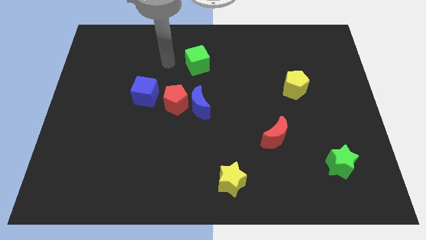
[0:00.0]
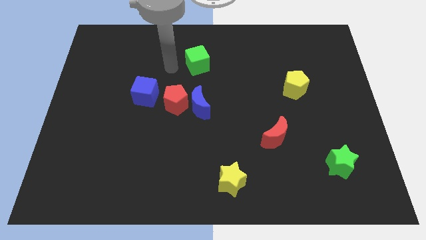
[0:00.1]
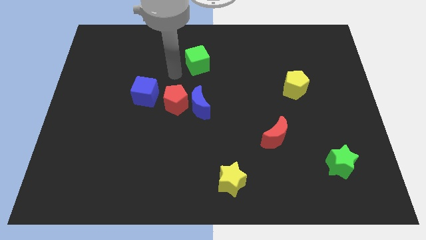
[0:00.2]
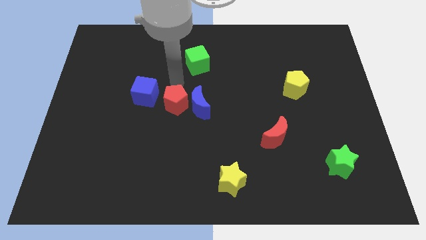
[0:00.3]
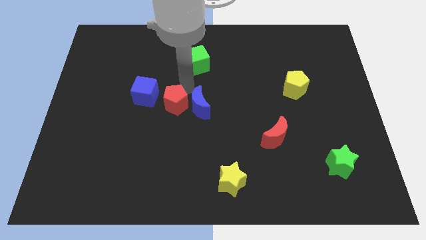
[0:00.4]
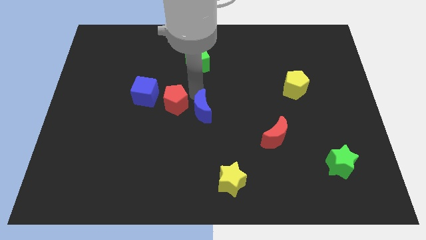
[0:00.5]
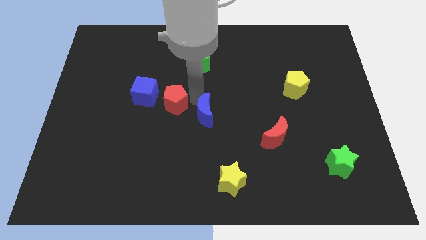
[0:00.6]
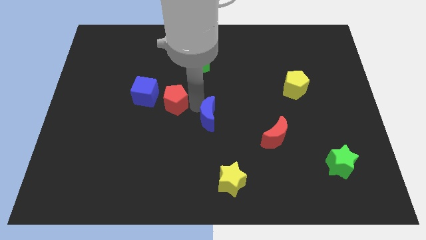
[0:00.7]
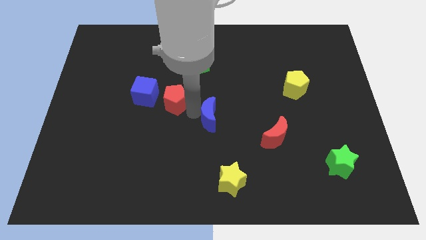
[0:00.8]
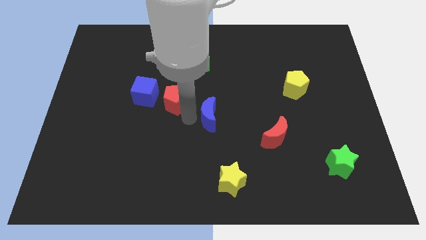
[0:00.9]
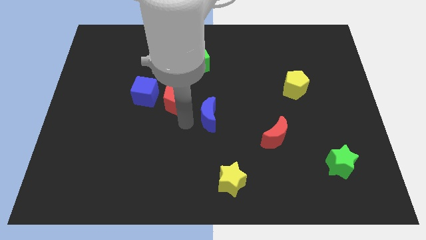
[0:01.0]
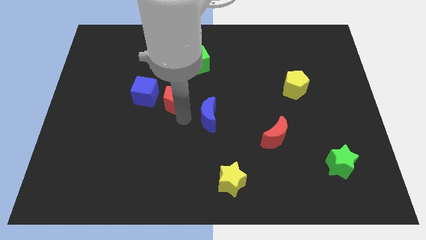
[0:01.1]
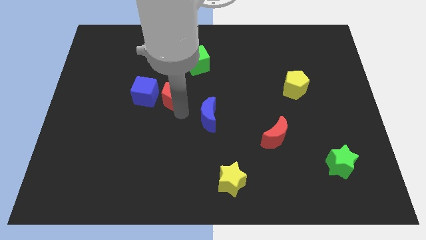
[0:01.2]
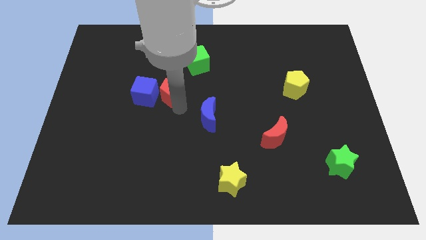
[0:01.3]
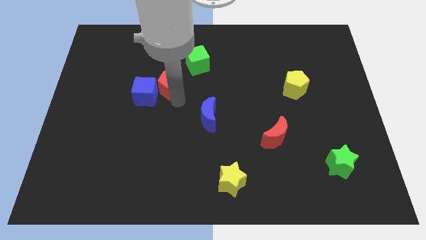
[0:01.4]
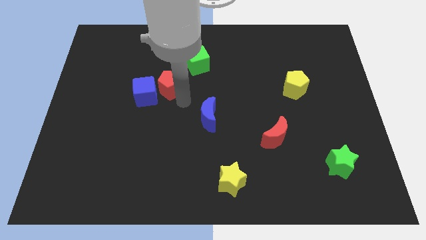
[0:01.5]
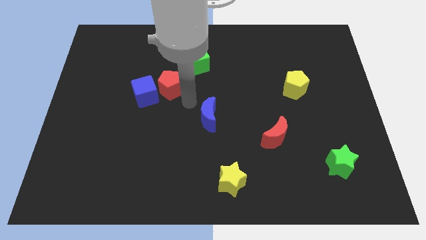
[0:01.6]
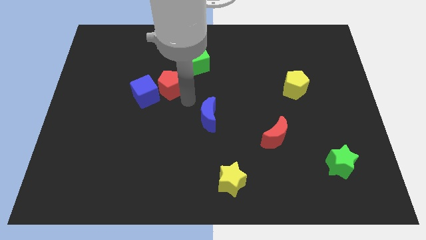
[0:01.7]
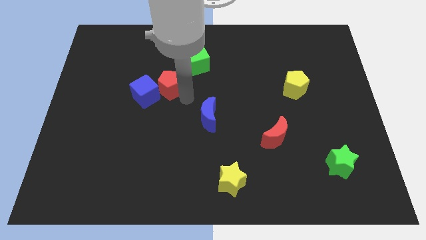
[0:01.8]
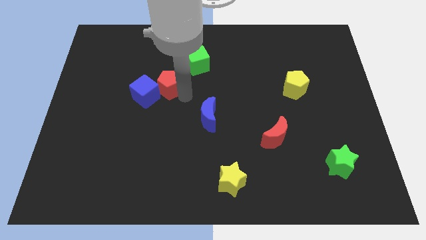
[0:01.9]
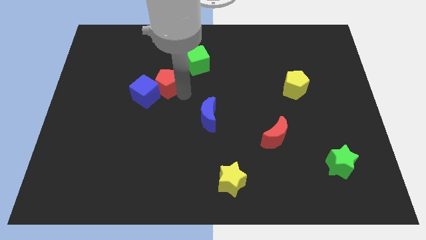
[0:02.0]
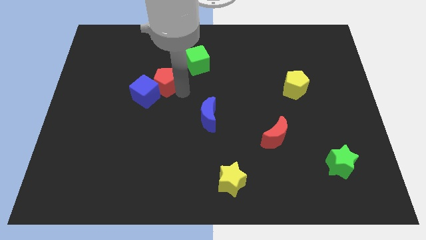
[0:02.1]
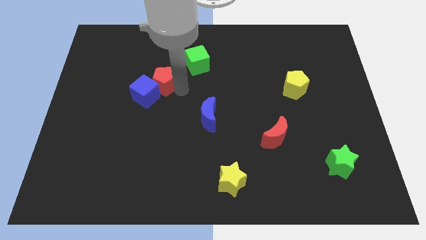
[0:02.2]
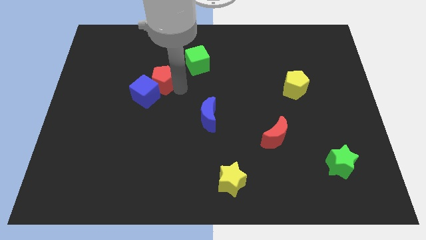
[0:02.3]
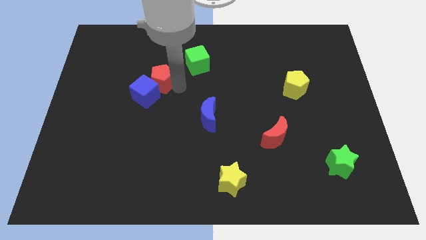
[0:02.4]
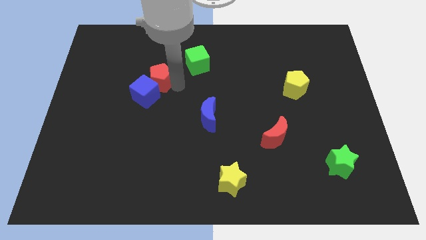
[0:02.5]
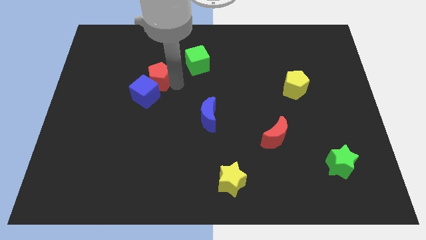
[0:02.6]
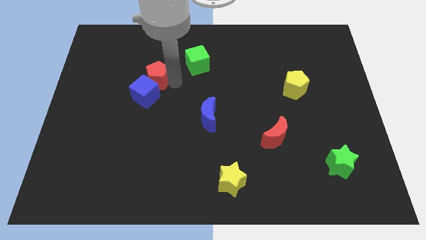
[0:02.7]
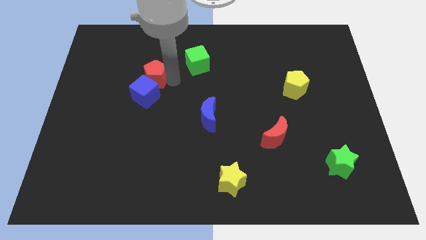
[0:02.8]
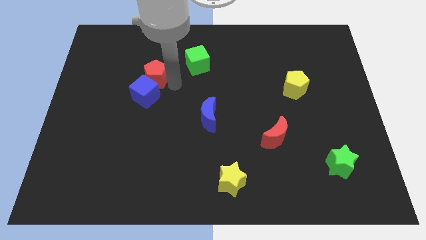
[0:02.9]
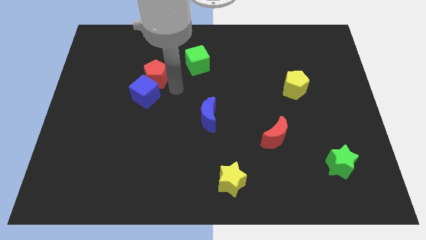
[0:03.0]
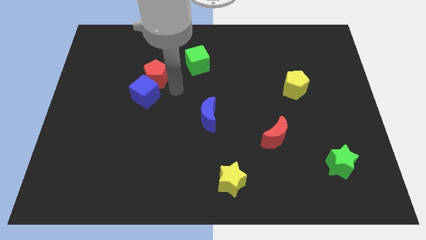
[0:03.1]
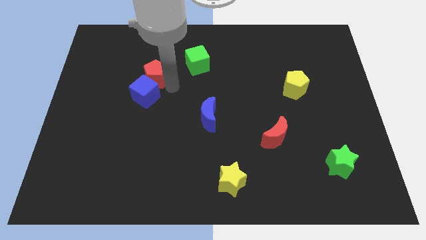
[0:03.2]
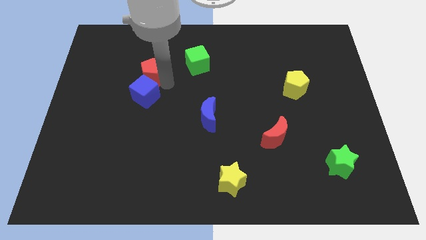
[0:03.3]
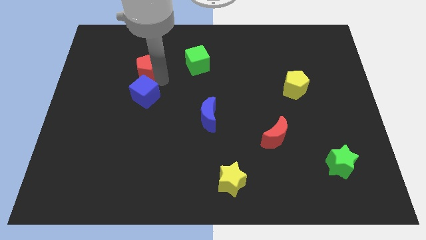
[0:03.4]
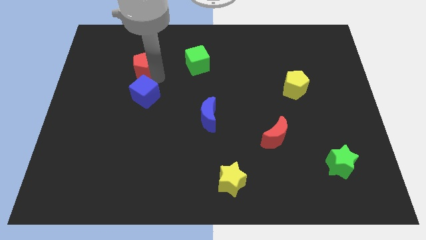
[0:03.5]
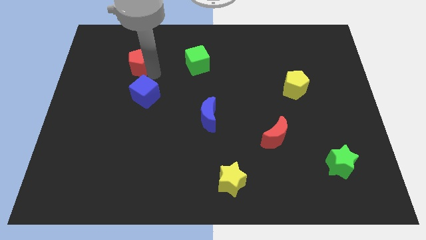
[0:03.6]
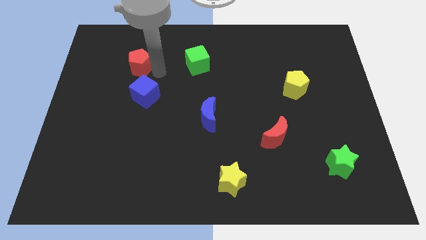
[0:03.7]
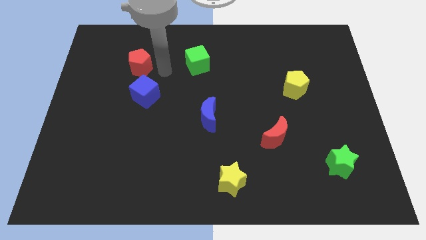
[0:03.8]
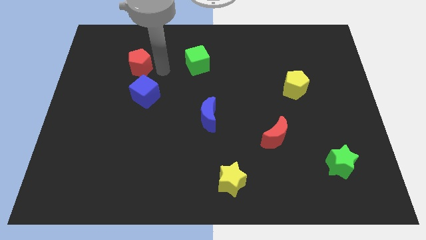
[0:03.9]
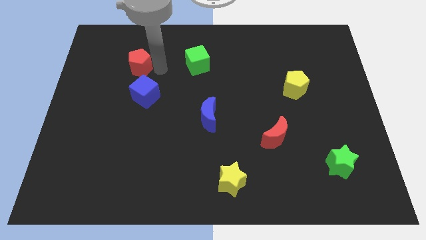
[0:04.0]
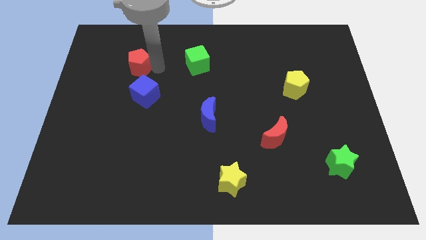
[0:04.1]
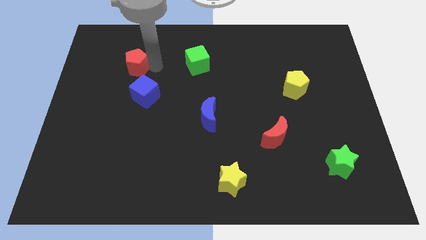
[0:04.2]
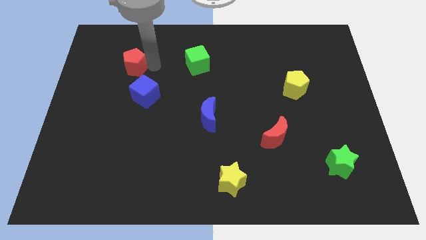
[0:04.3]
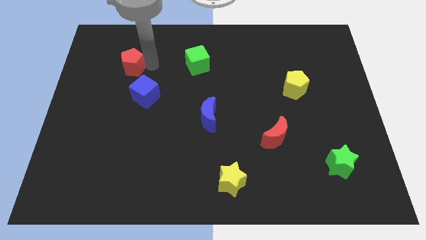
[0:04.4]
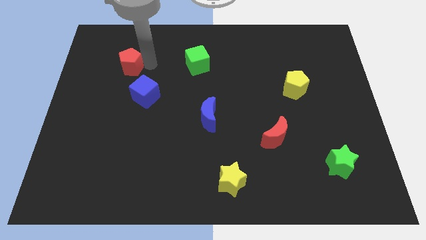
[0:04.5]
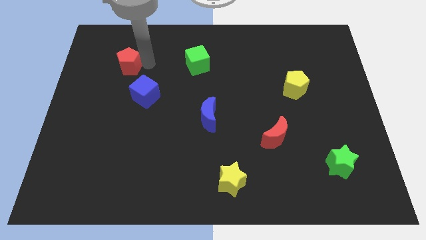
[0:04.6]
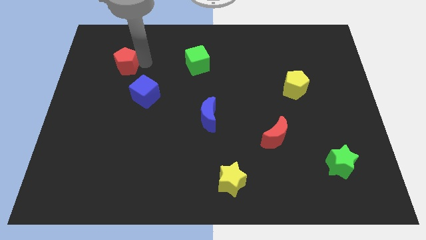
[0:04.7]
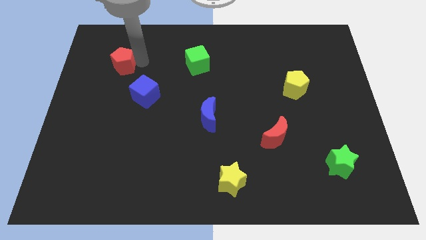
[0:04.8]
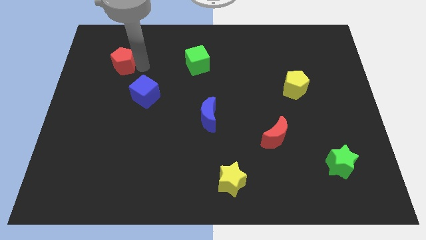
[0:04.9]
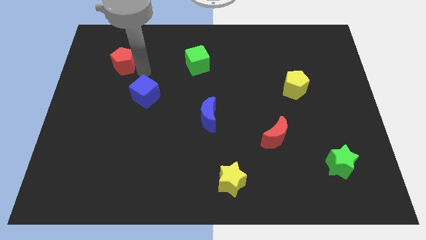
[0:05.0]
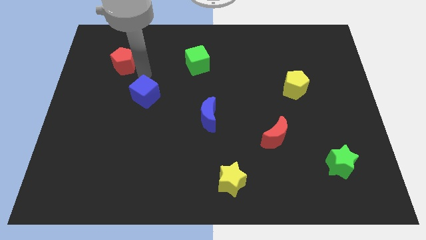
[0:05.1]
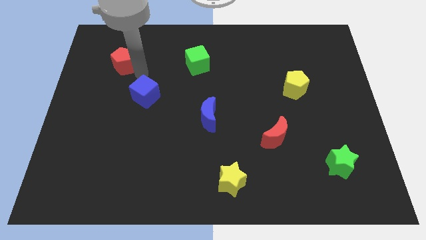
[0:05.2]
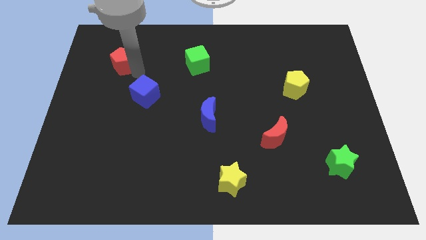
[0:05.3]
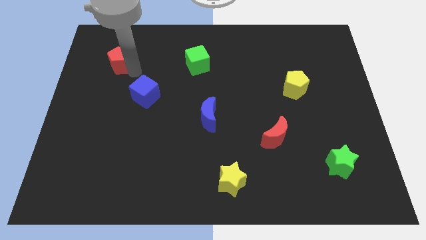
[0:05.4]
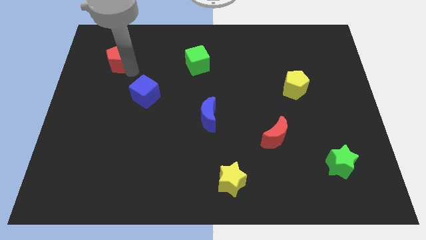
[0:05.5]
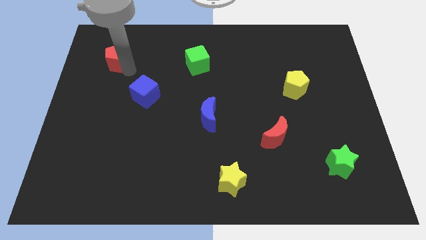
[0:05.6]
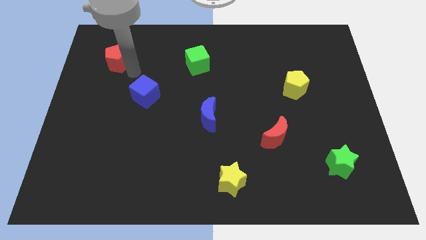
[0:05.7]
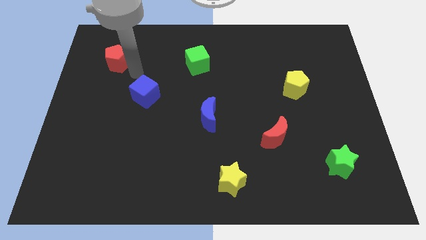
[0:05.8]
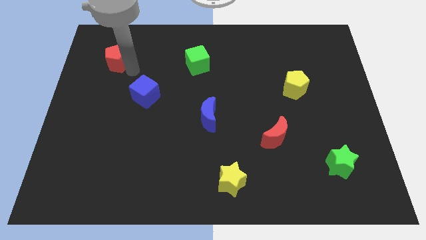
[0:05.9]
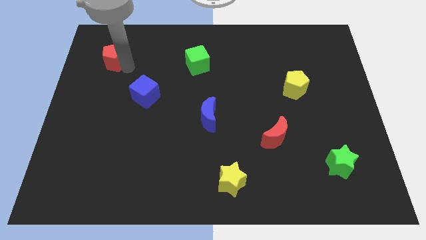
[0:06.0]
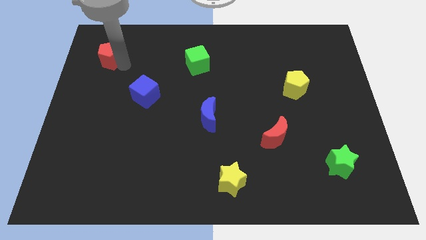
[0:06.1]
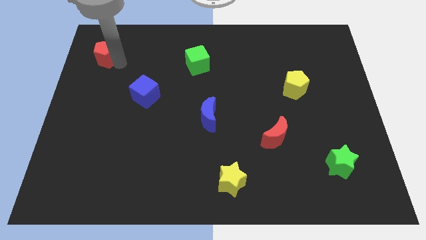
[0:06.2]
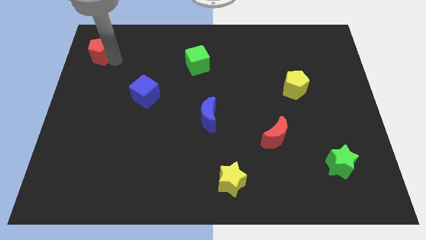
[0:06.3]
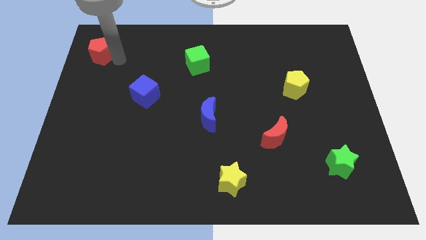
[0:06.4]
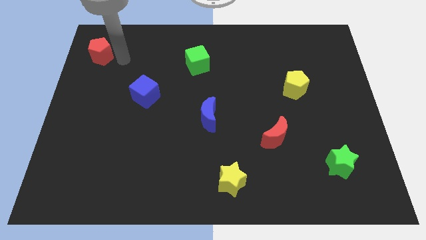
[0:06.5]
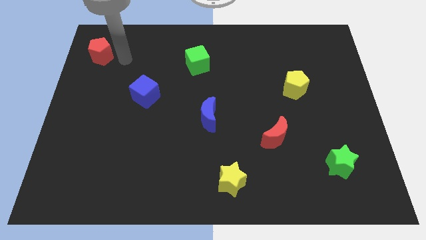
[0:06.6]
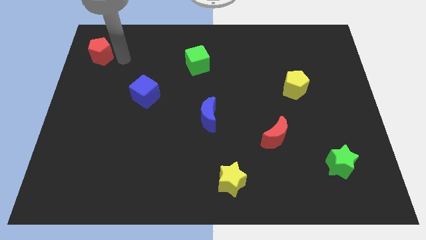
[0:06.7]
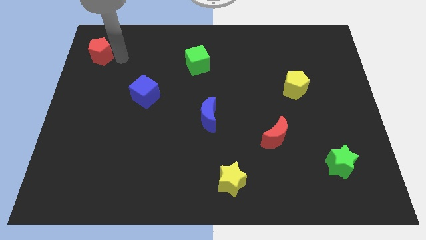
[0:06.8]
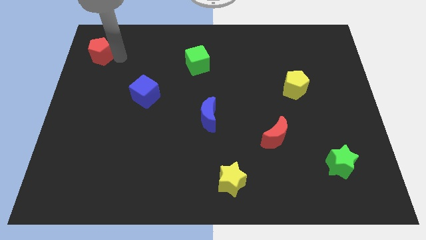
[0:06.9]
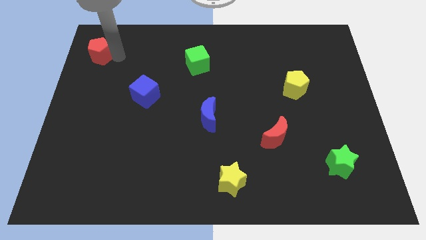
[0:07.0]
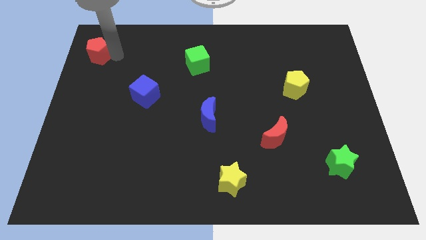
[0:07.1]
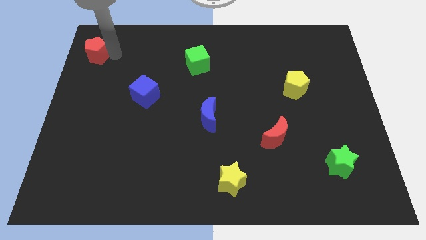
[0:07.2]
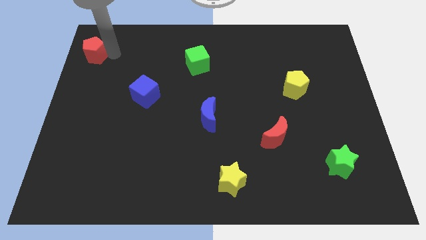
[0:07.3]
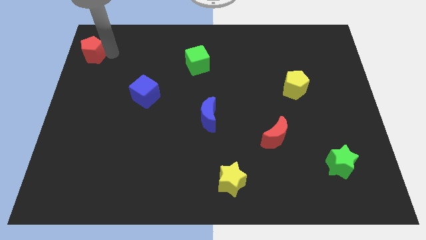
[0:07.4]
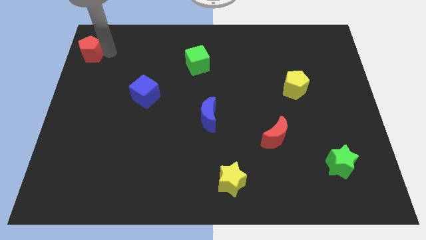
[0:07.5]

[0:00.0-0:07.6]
push the red pentagon to the top left
